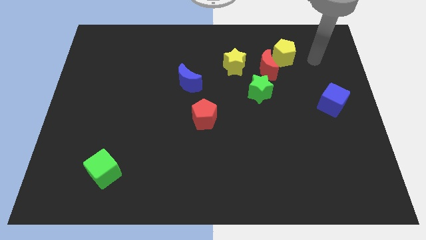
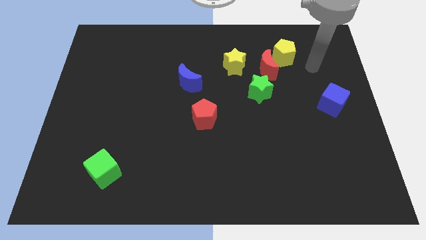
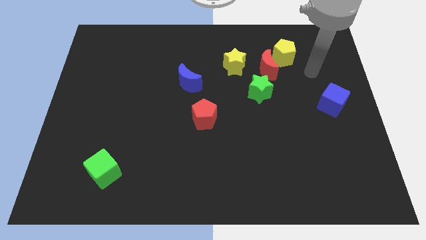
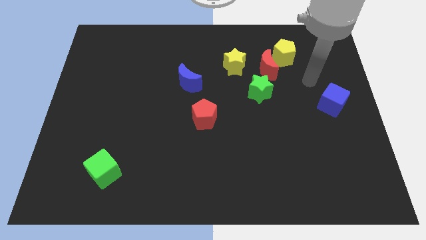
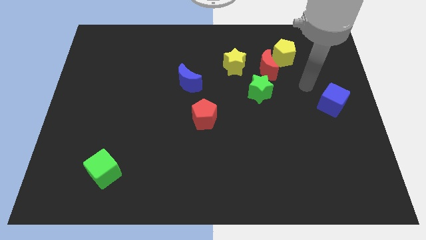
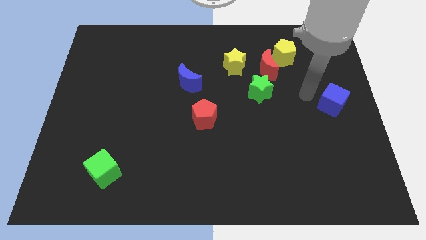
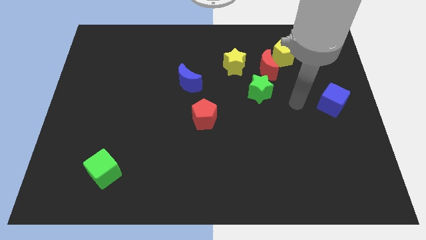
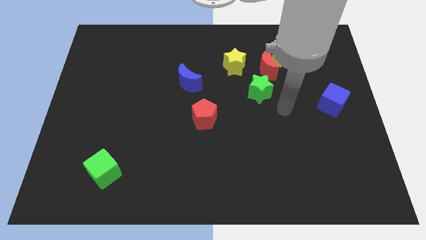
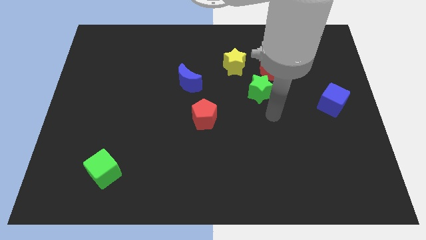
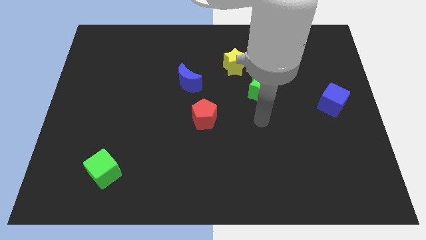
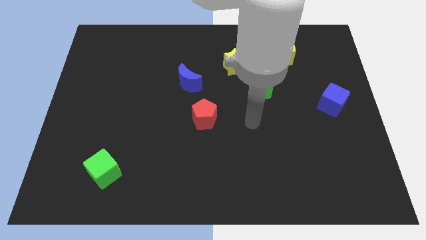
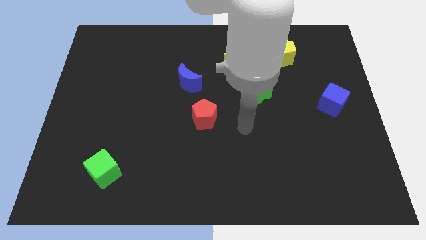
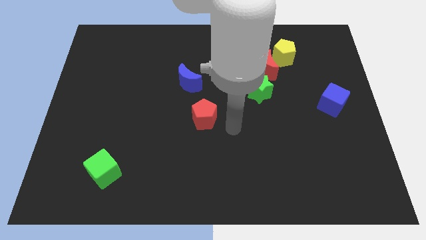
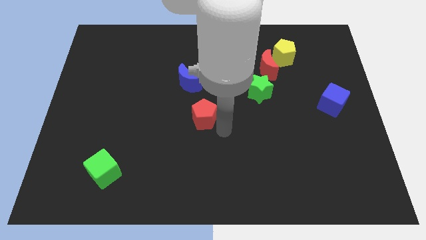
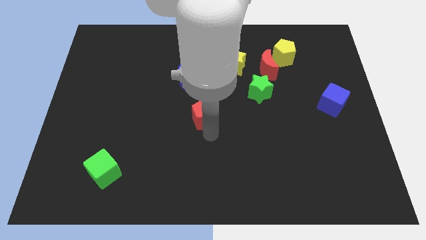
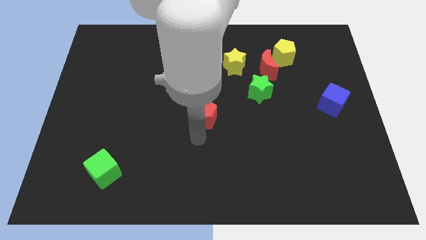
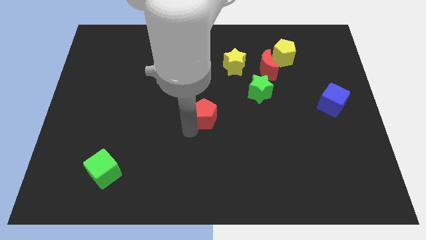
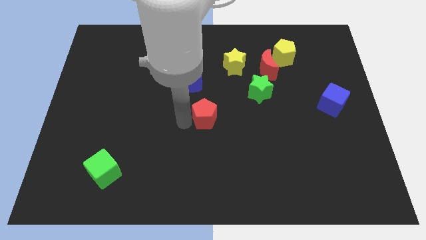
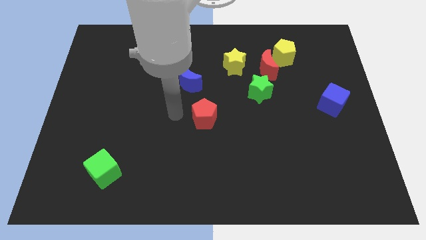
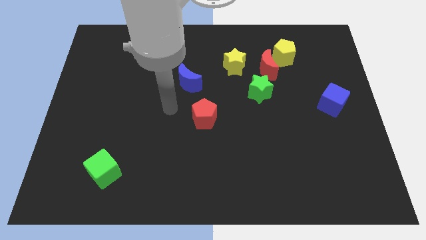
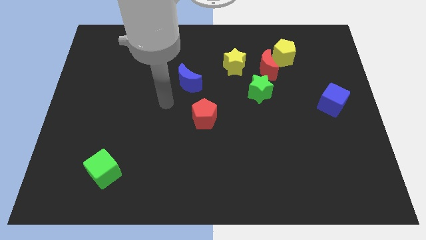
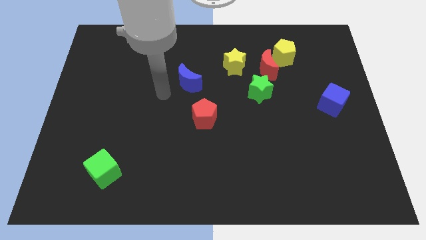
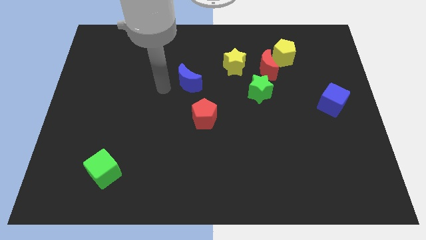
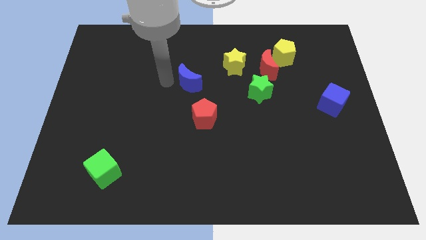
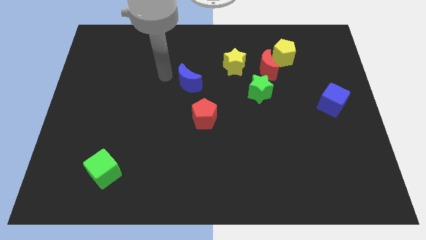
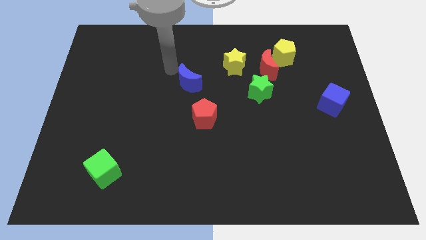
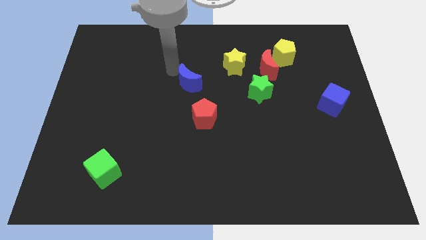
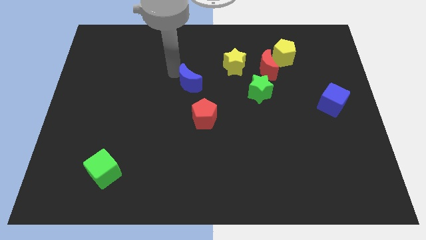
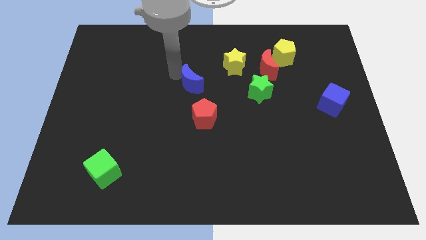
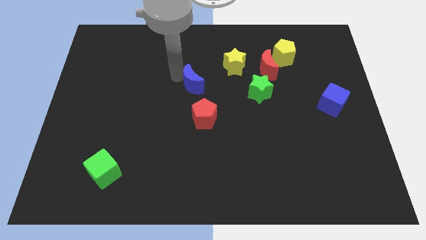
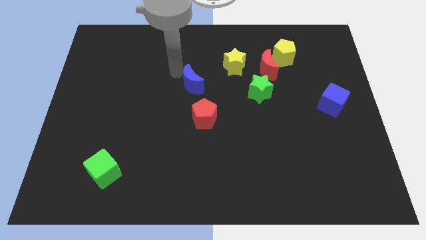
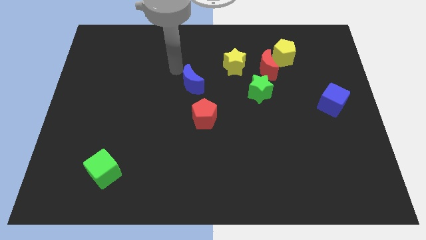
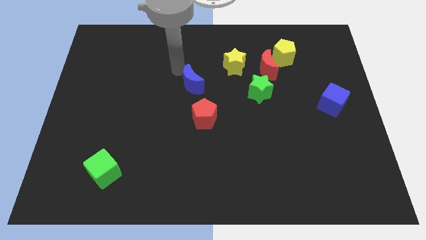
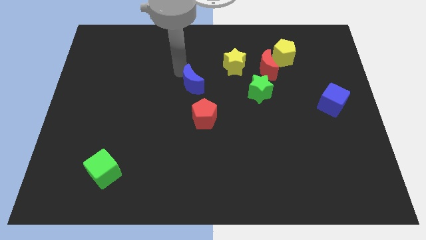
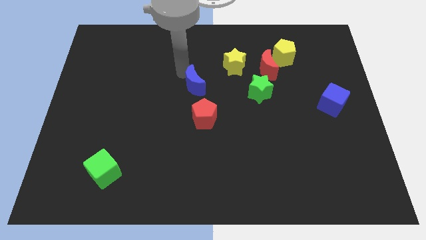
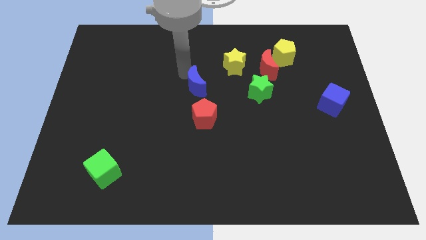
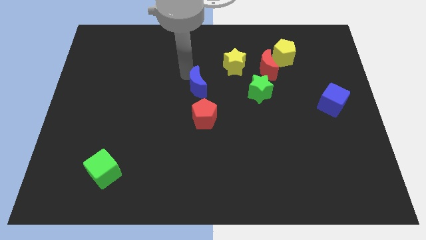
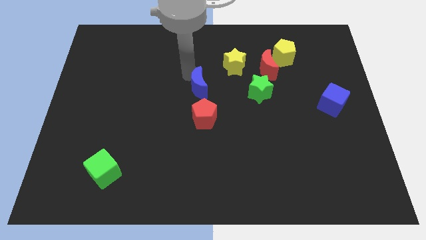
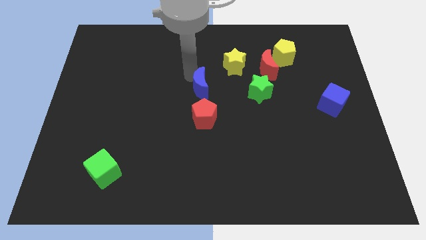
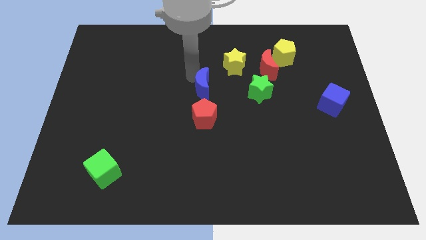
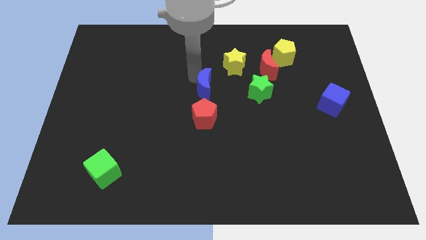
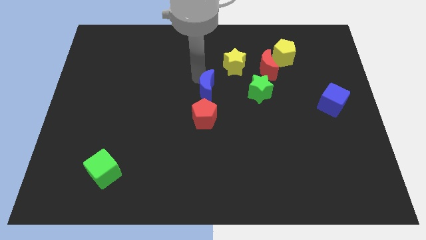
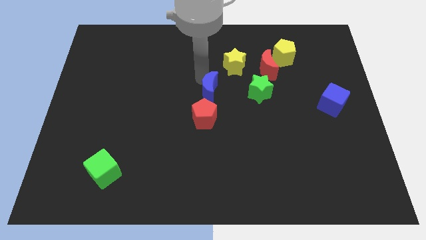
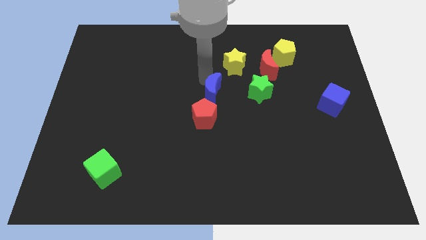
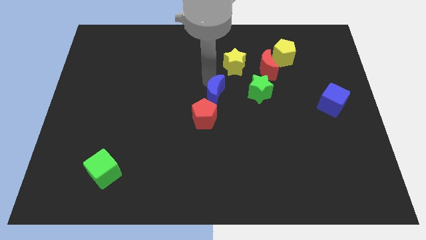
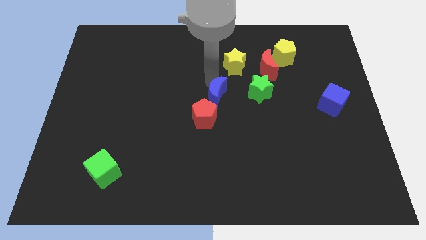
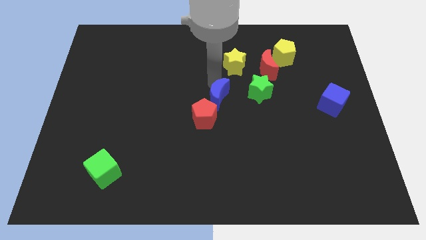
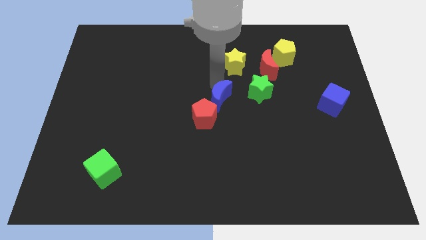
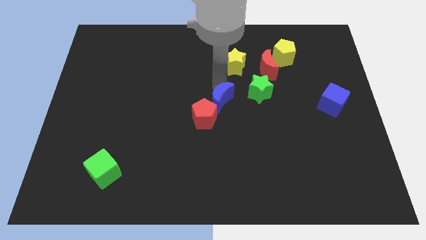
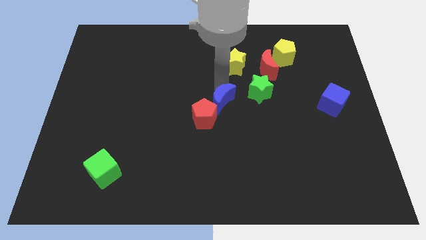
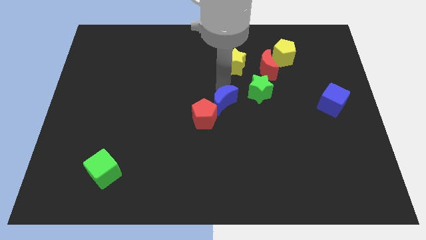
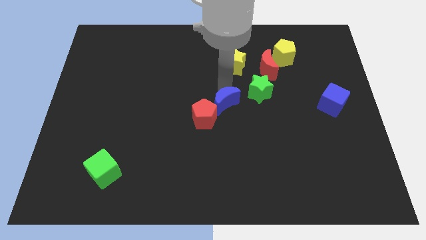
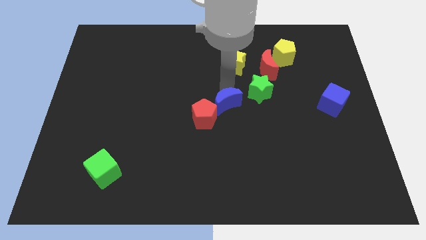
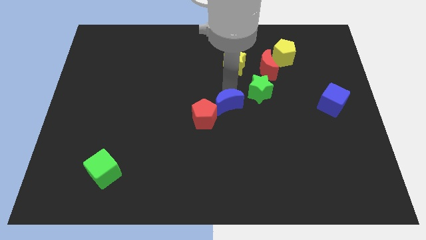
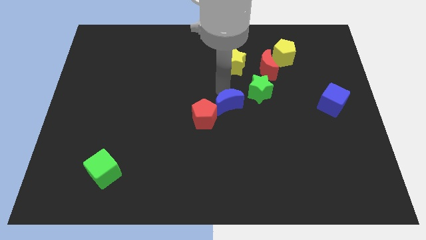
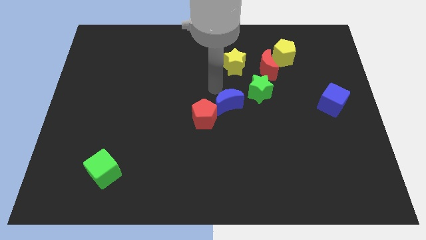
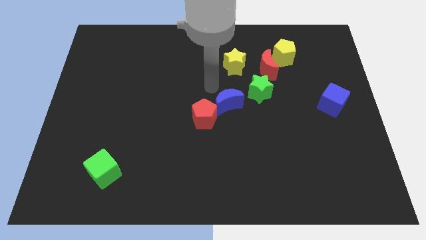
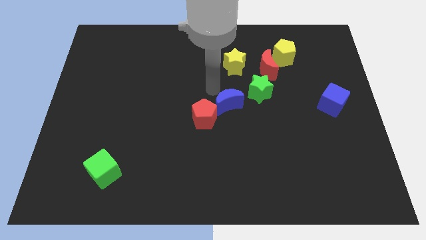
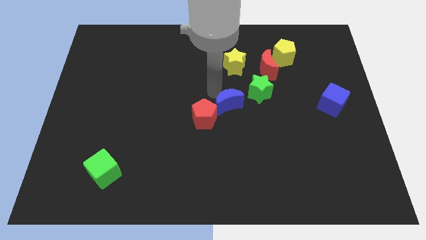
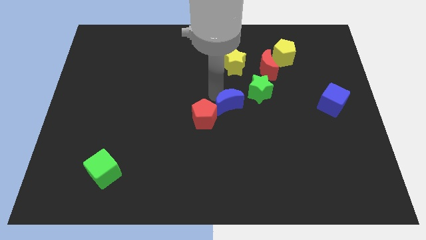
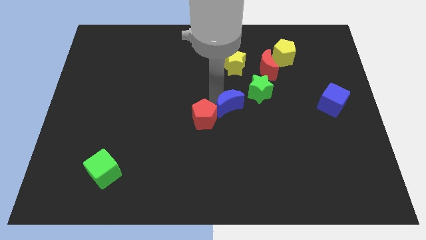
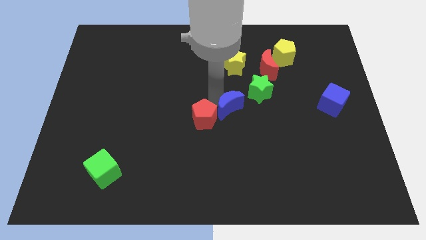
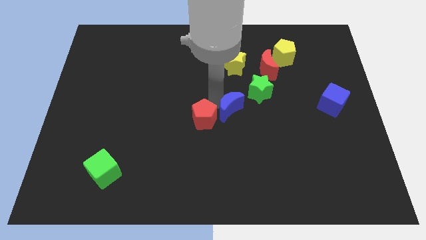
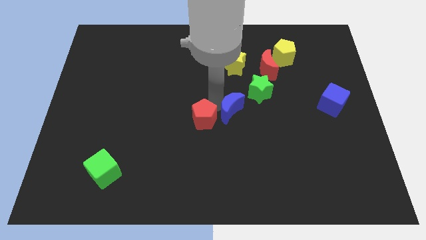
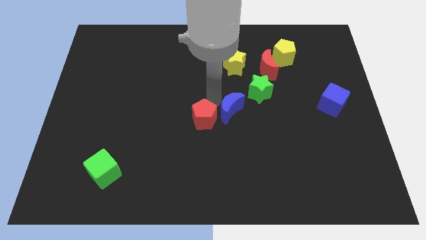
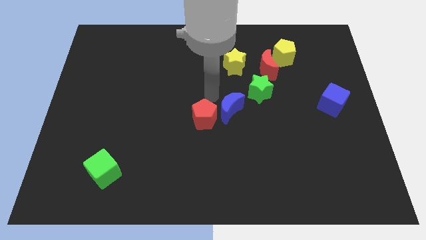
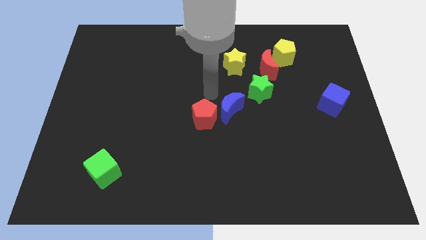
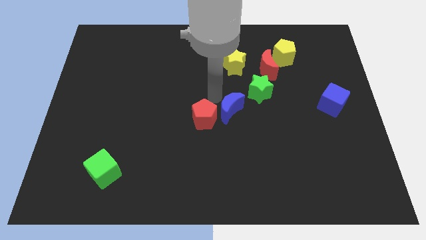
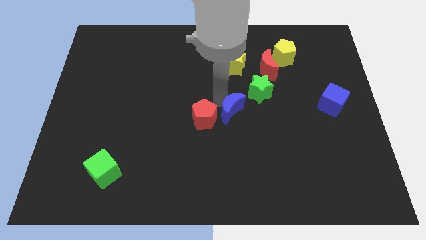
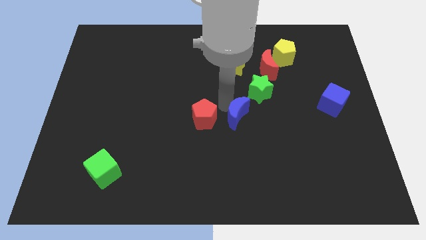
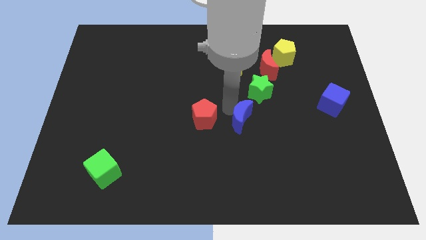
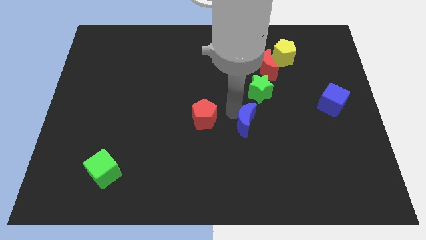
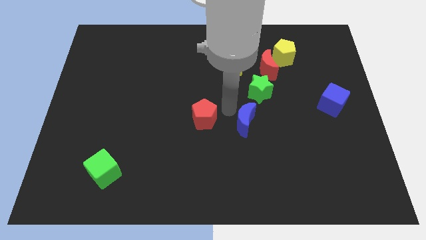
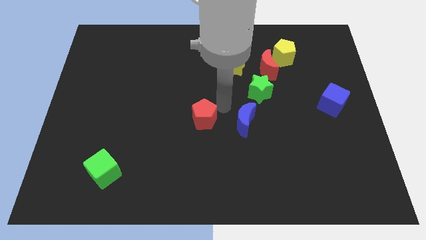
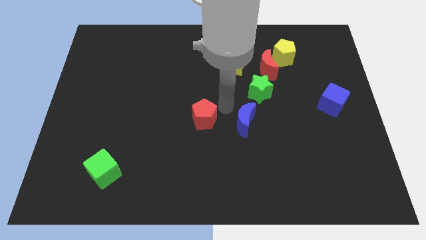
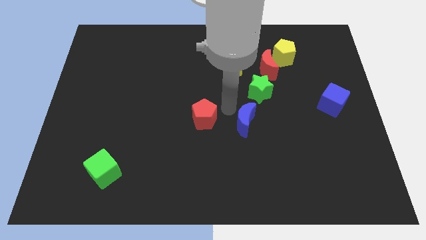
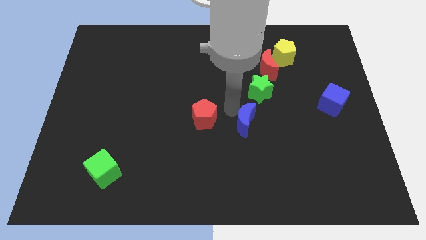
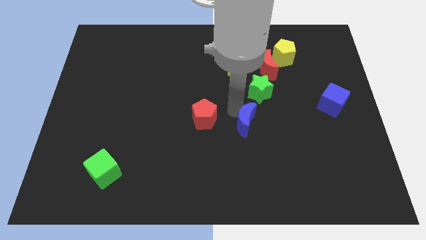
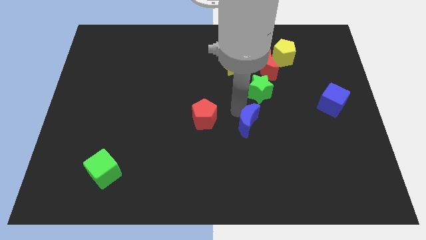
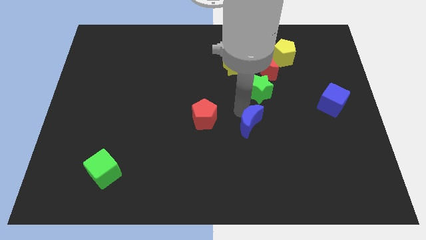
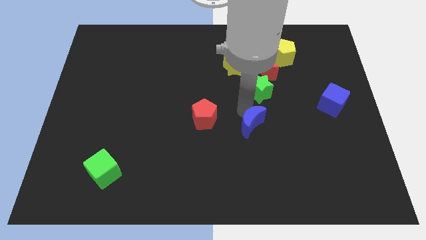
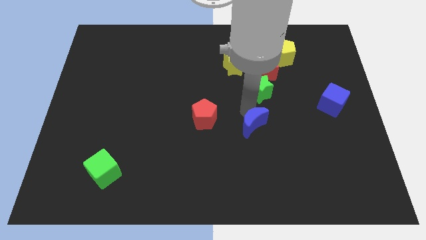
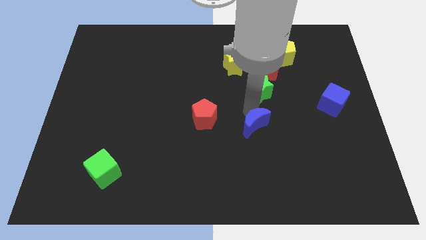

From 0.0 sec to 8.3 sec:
slide the blue moon downwards and right diagonally
